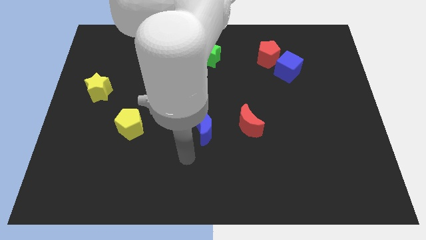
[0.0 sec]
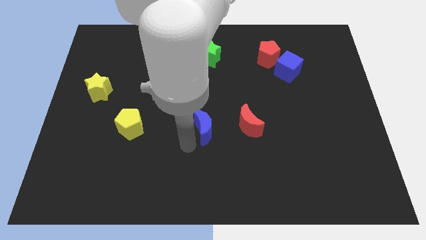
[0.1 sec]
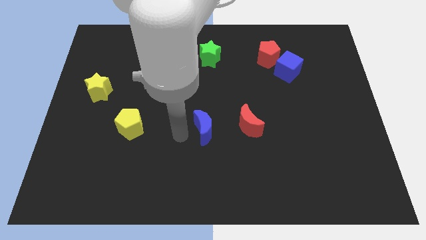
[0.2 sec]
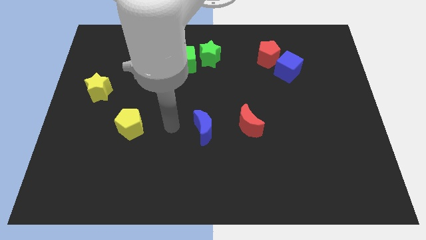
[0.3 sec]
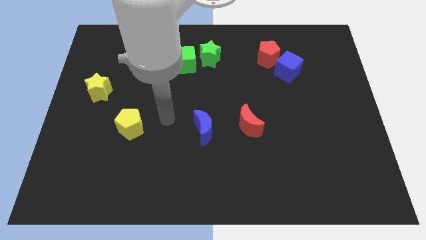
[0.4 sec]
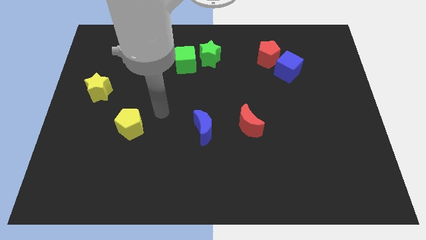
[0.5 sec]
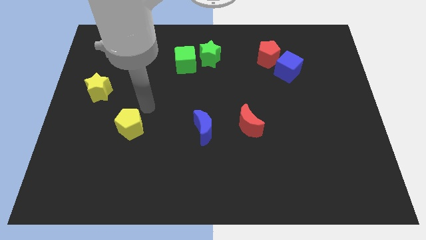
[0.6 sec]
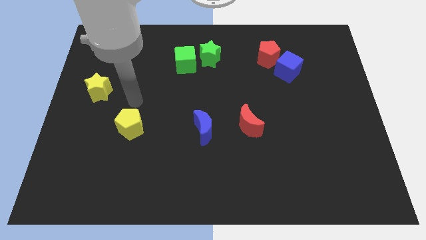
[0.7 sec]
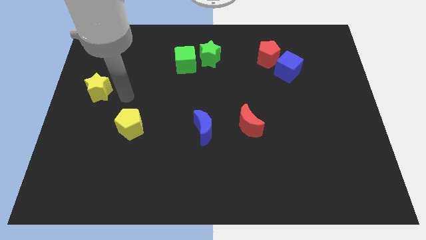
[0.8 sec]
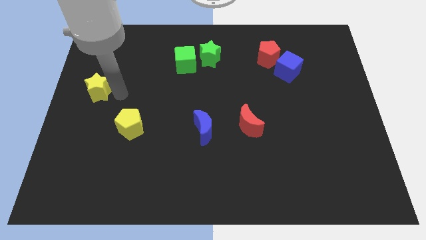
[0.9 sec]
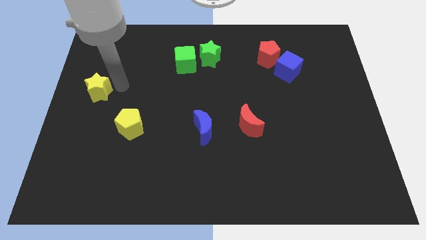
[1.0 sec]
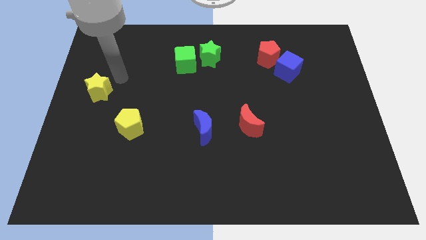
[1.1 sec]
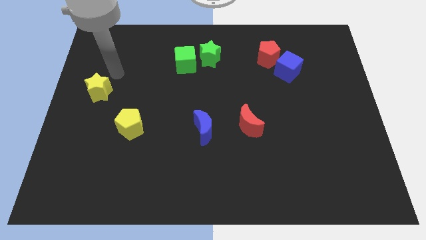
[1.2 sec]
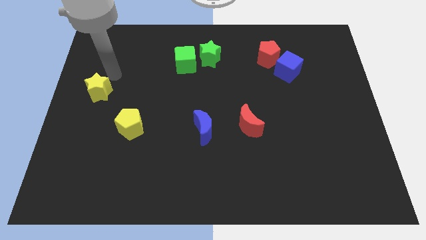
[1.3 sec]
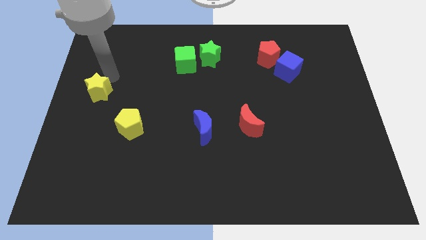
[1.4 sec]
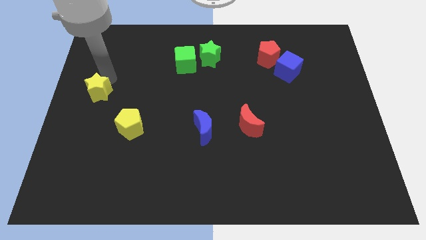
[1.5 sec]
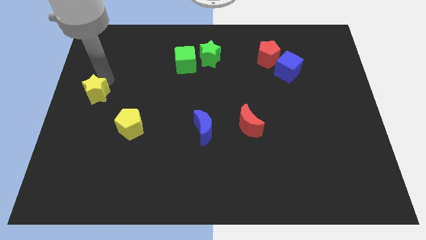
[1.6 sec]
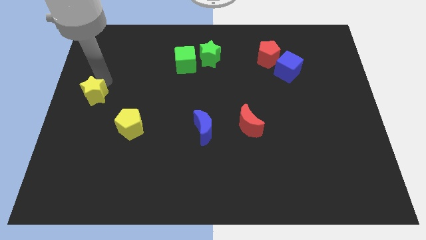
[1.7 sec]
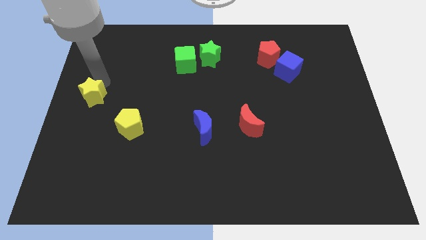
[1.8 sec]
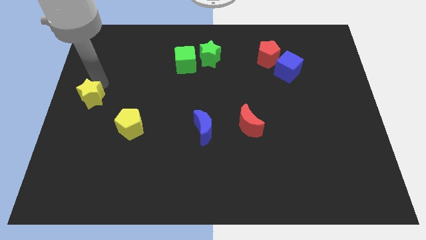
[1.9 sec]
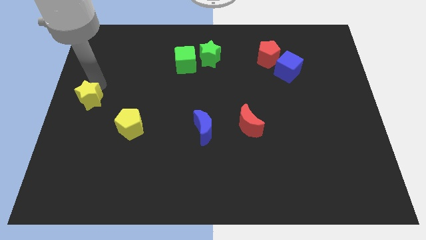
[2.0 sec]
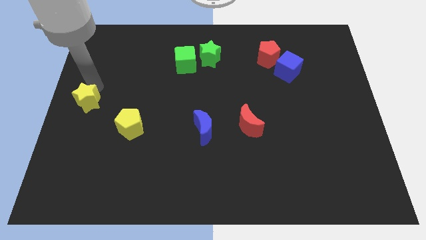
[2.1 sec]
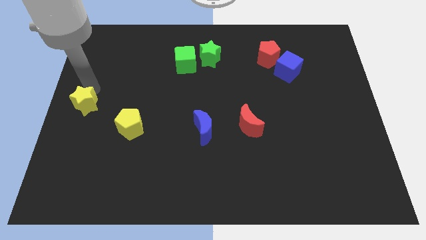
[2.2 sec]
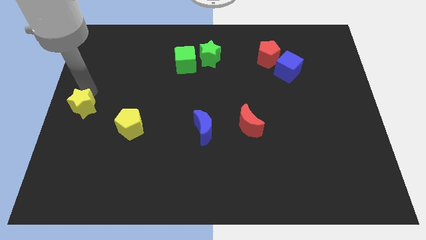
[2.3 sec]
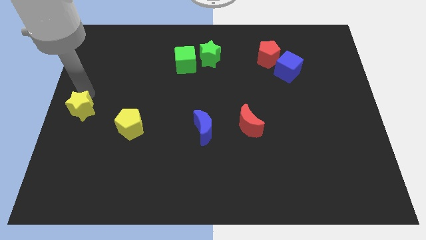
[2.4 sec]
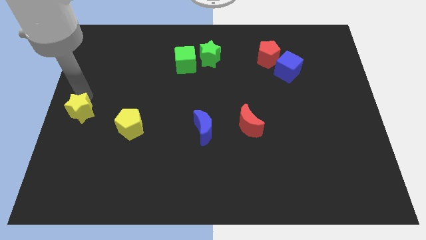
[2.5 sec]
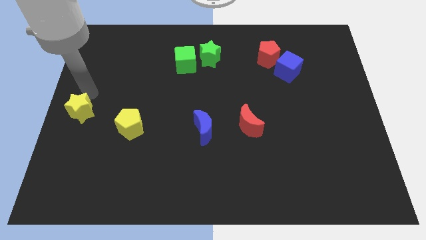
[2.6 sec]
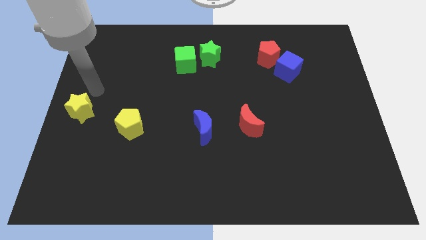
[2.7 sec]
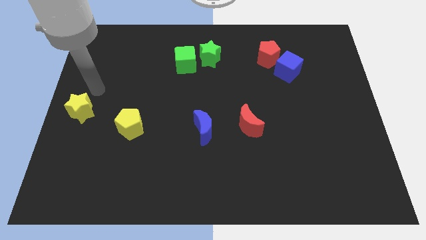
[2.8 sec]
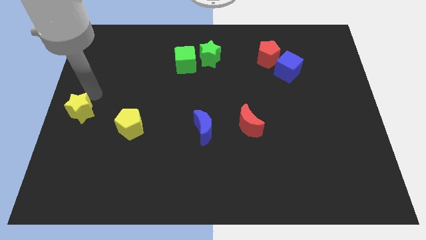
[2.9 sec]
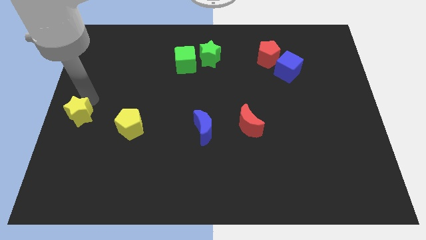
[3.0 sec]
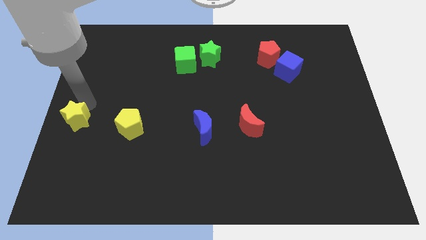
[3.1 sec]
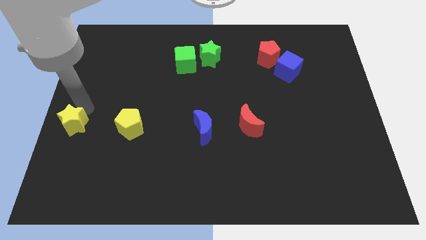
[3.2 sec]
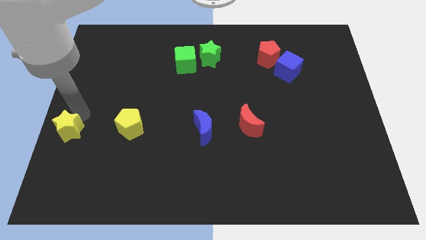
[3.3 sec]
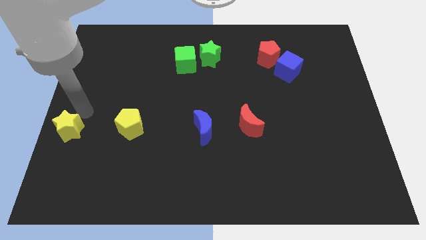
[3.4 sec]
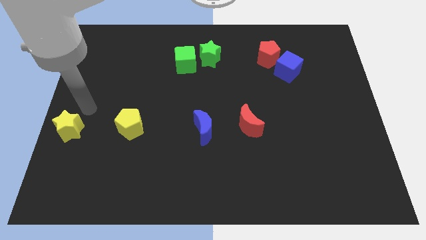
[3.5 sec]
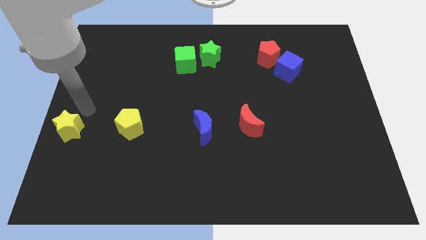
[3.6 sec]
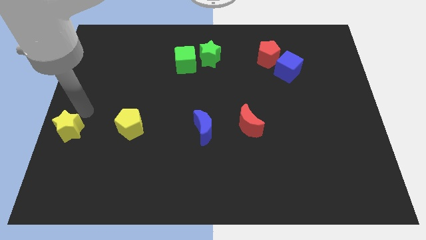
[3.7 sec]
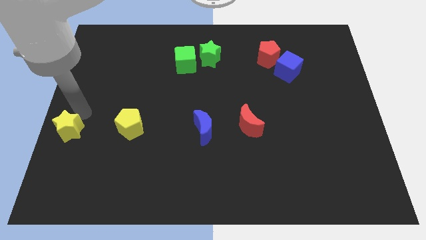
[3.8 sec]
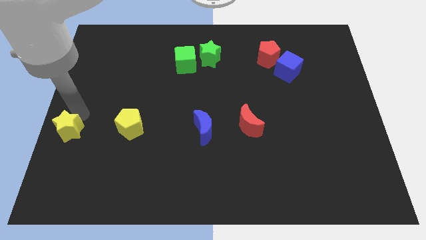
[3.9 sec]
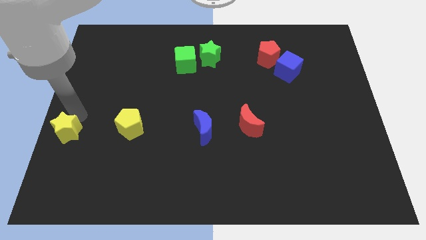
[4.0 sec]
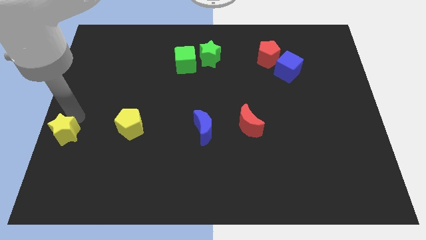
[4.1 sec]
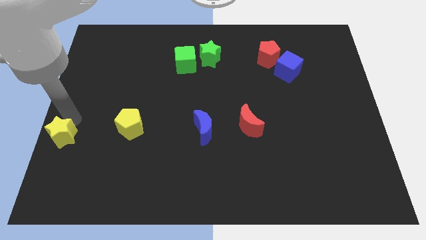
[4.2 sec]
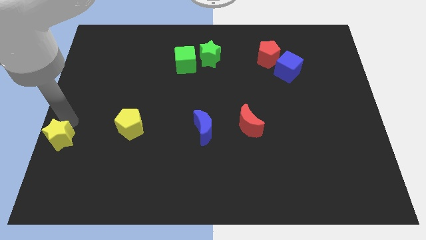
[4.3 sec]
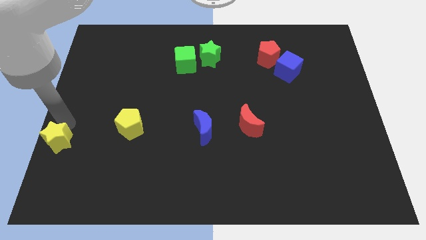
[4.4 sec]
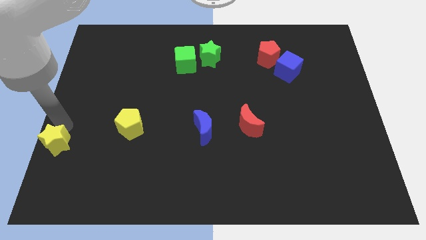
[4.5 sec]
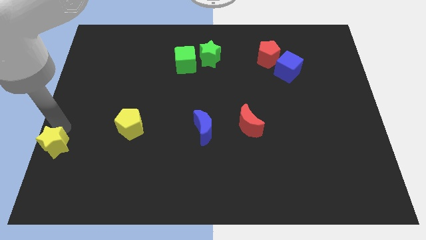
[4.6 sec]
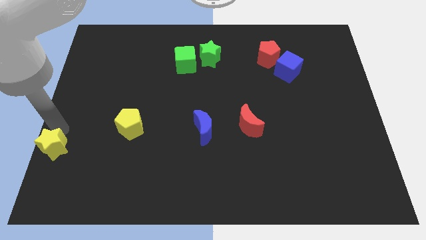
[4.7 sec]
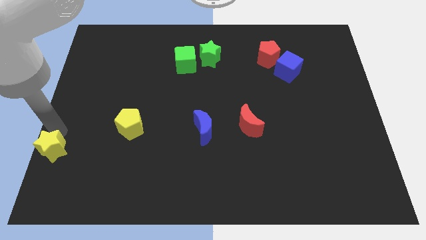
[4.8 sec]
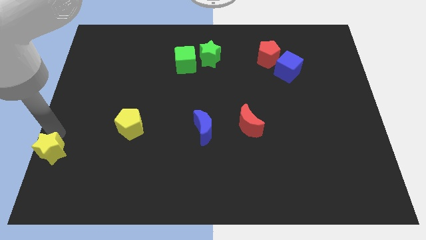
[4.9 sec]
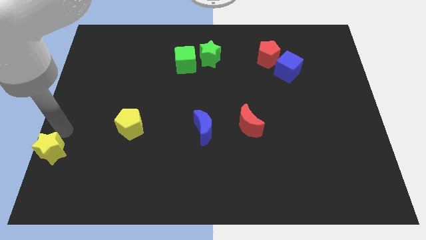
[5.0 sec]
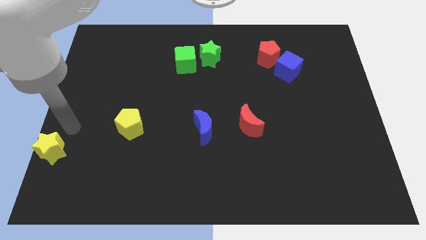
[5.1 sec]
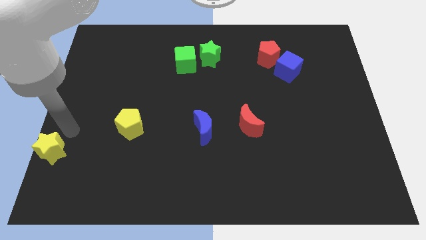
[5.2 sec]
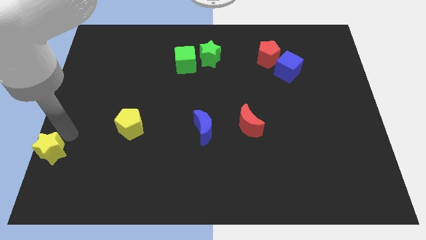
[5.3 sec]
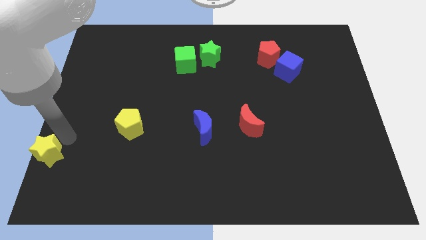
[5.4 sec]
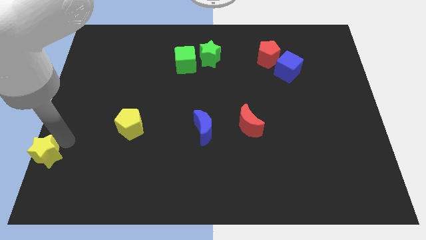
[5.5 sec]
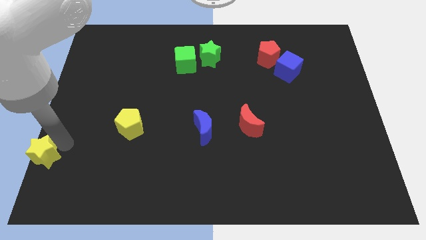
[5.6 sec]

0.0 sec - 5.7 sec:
push the yellow star to the bottom left of the board

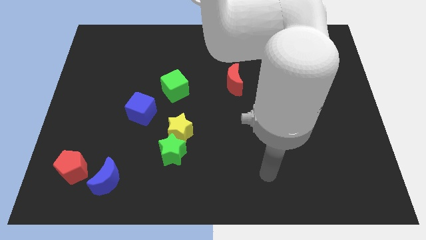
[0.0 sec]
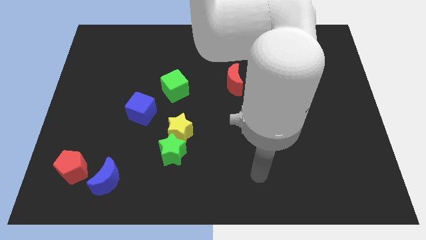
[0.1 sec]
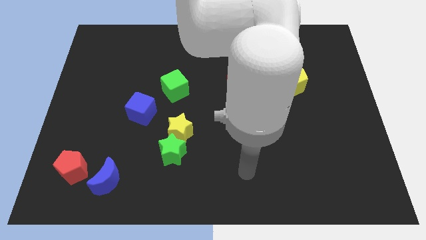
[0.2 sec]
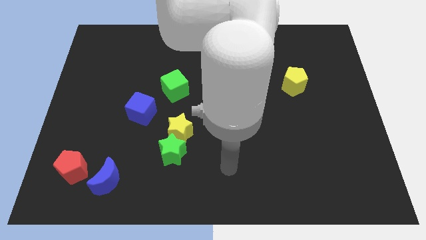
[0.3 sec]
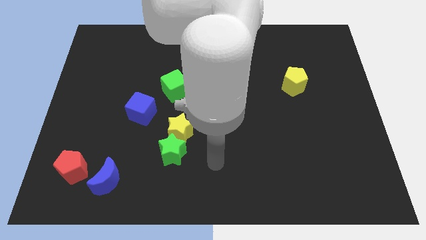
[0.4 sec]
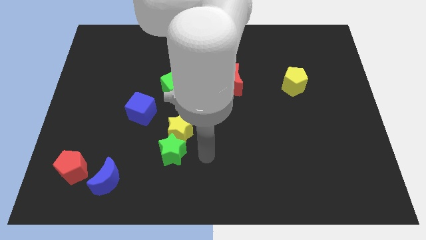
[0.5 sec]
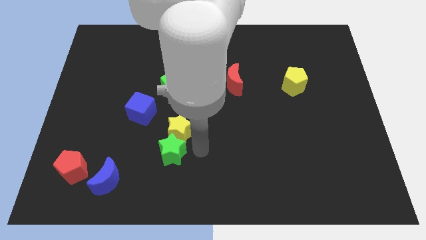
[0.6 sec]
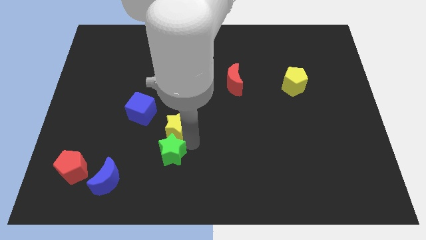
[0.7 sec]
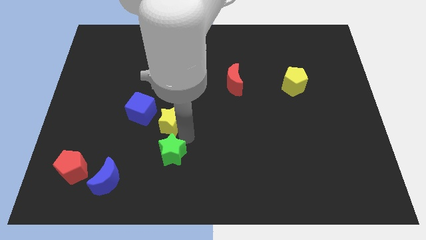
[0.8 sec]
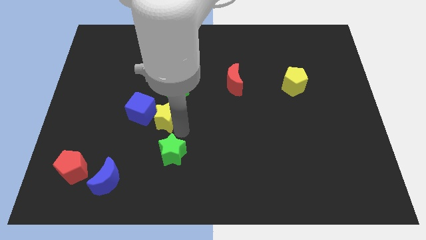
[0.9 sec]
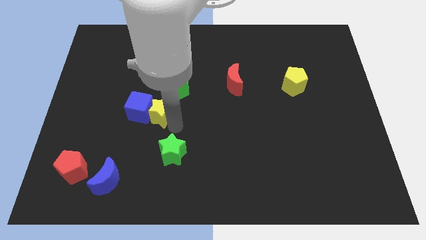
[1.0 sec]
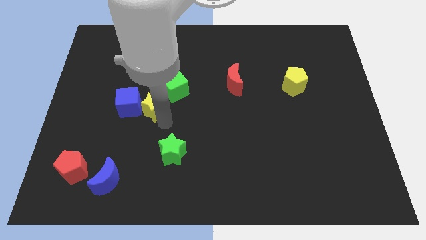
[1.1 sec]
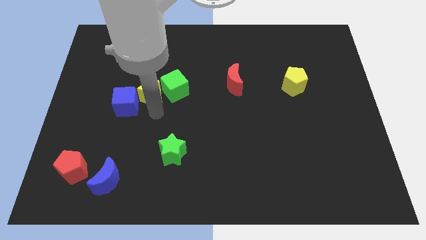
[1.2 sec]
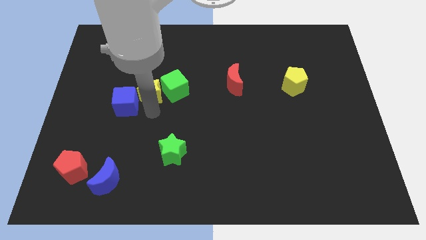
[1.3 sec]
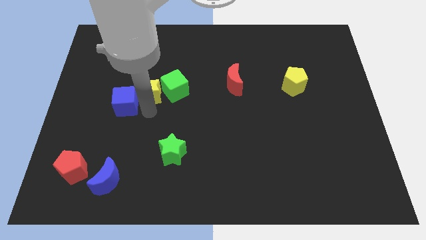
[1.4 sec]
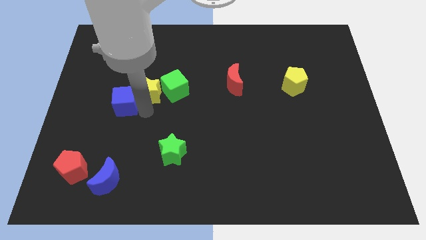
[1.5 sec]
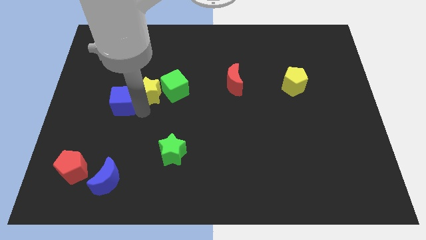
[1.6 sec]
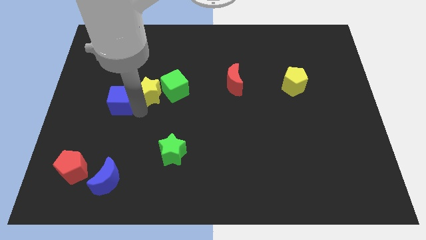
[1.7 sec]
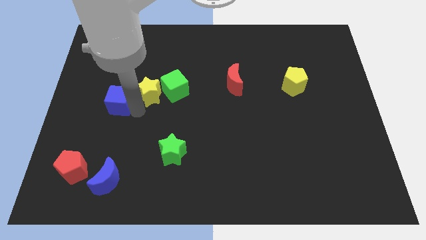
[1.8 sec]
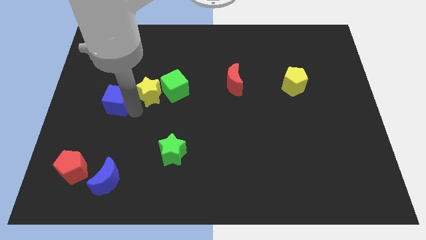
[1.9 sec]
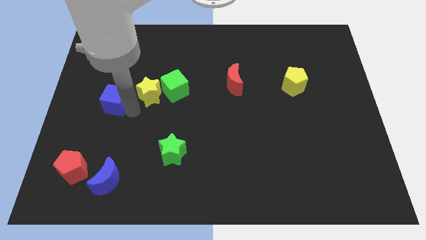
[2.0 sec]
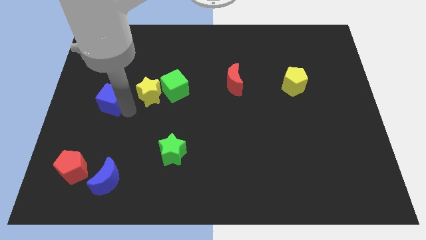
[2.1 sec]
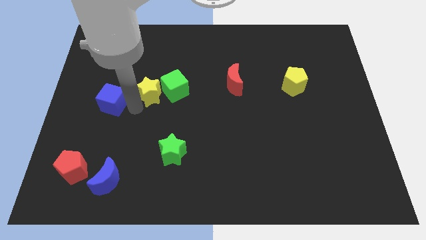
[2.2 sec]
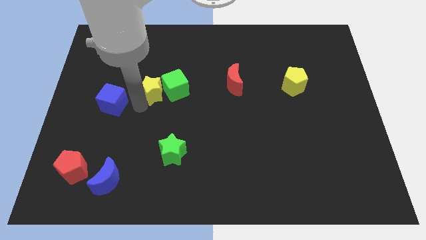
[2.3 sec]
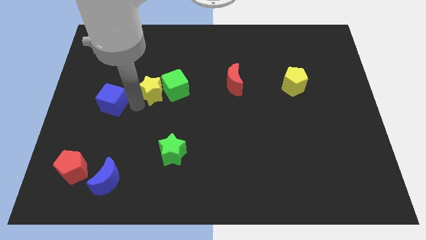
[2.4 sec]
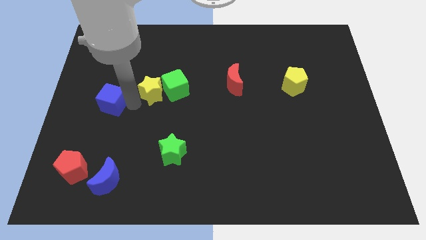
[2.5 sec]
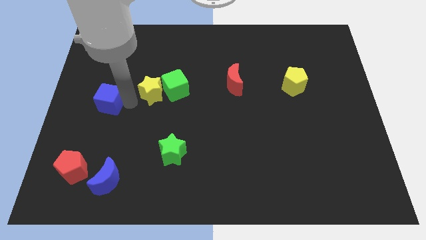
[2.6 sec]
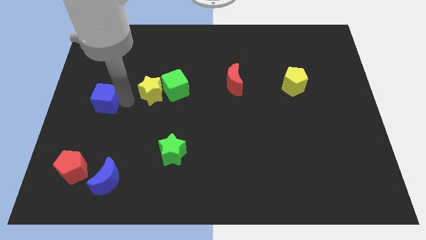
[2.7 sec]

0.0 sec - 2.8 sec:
push the blue cube to the center left
